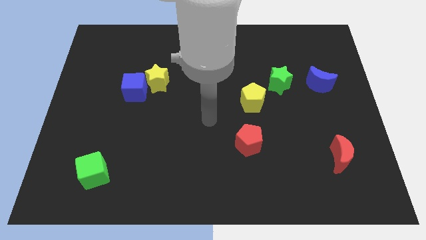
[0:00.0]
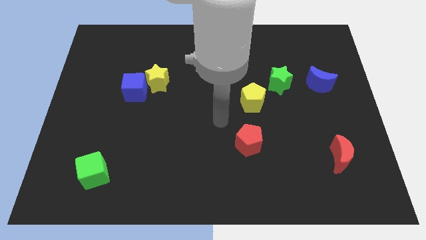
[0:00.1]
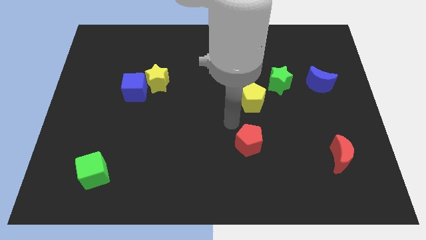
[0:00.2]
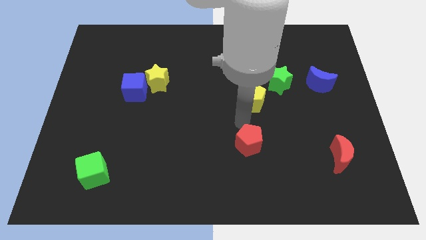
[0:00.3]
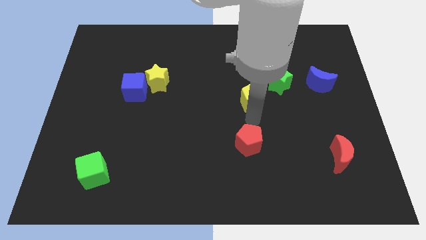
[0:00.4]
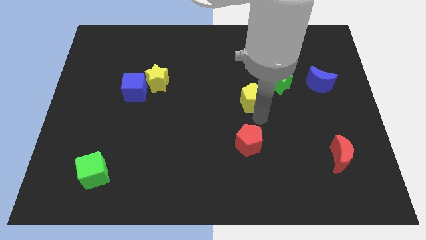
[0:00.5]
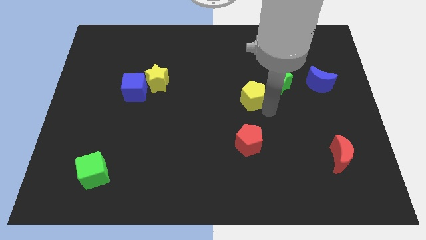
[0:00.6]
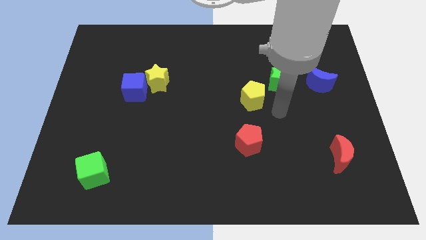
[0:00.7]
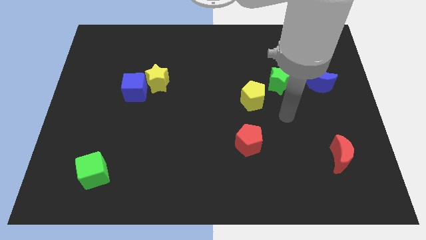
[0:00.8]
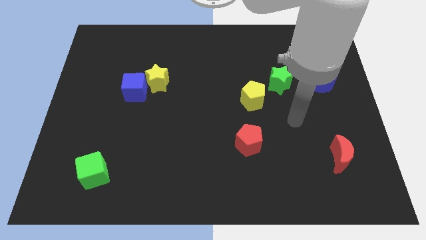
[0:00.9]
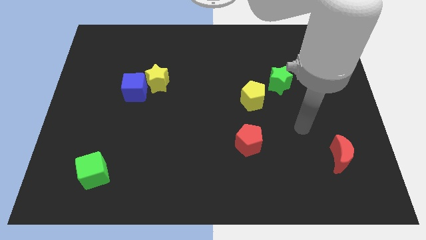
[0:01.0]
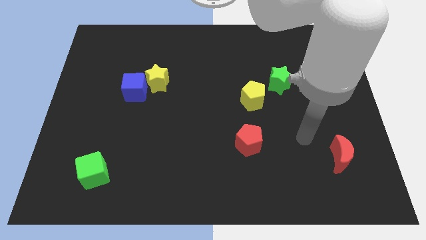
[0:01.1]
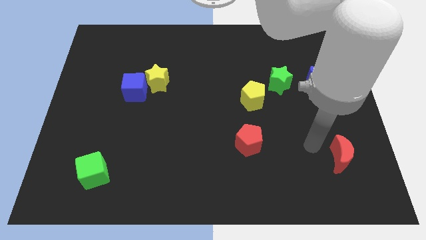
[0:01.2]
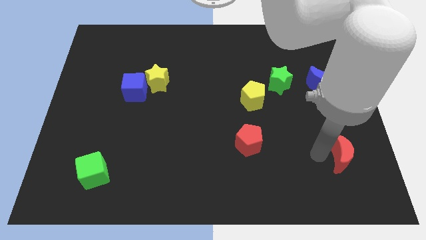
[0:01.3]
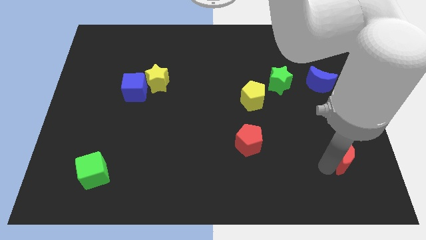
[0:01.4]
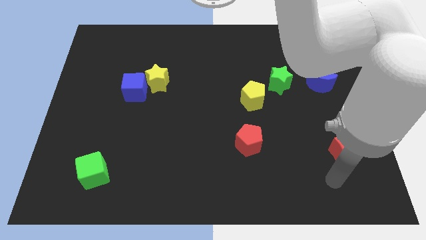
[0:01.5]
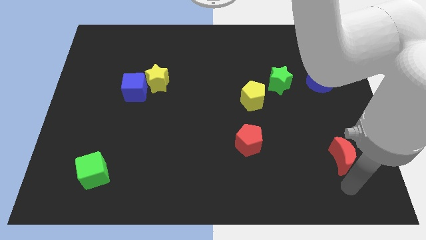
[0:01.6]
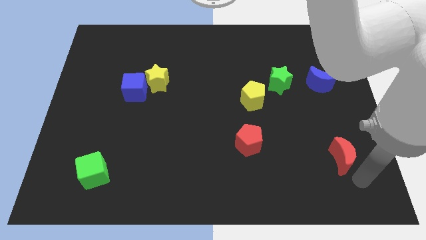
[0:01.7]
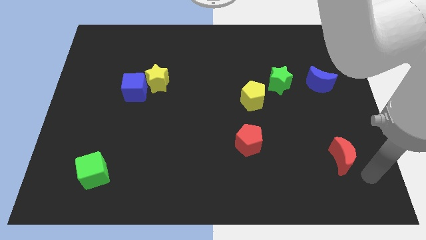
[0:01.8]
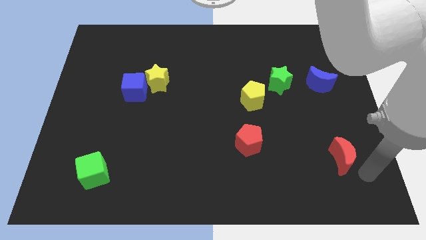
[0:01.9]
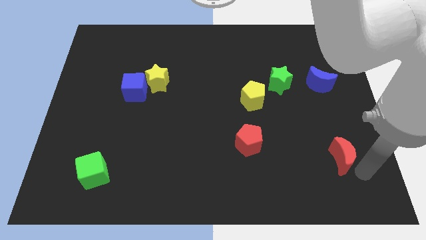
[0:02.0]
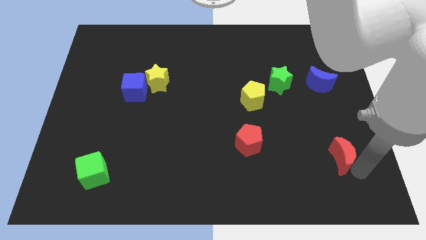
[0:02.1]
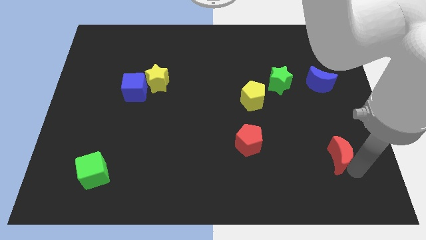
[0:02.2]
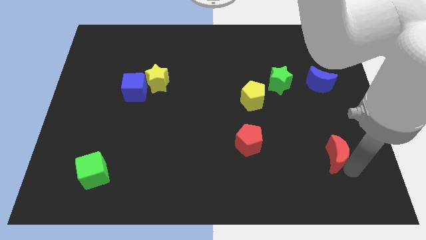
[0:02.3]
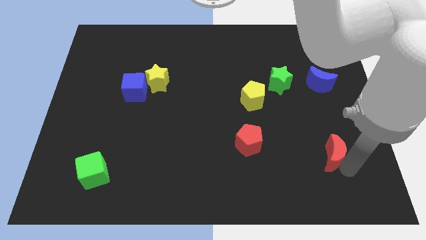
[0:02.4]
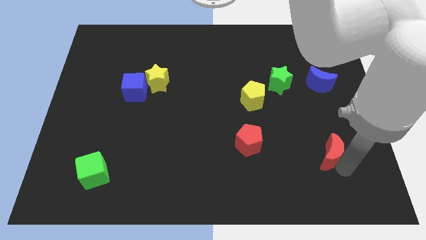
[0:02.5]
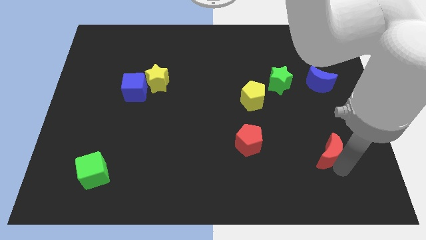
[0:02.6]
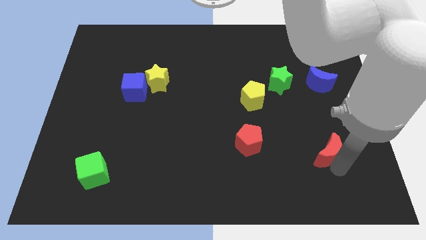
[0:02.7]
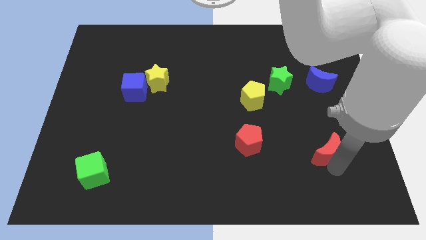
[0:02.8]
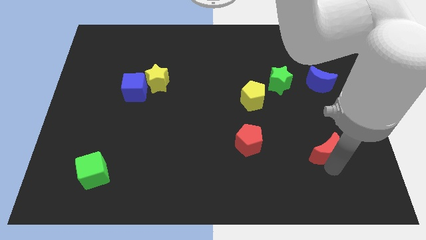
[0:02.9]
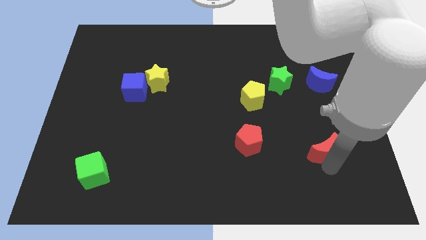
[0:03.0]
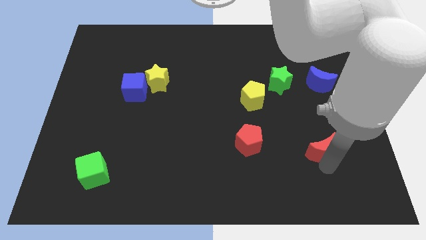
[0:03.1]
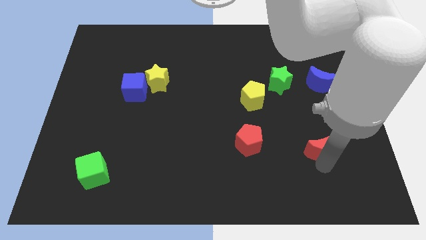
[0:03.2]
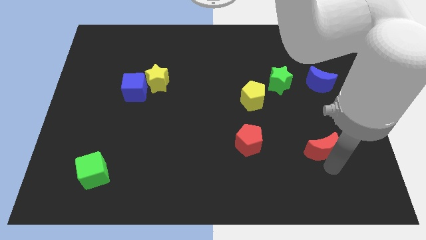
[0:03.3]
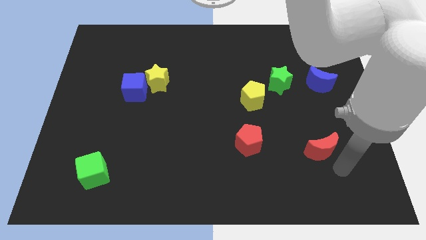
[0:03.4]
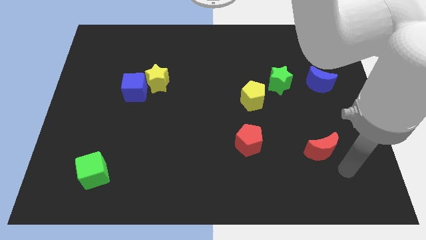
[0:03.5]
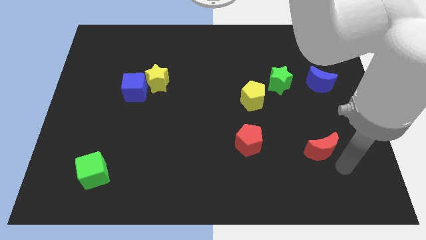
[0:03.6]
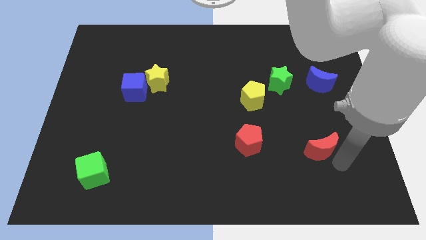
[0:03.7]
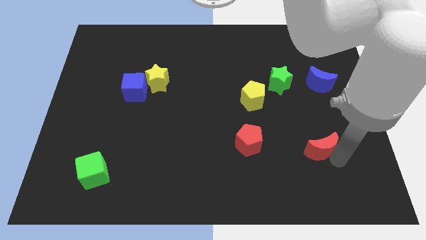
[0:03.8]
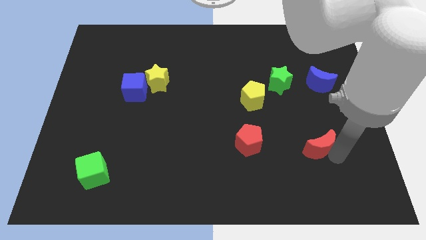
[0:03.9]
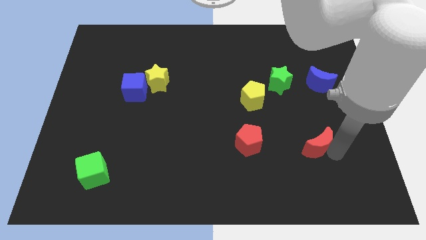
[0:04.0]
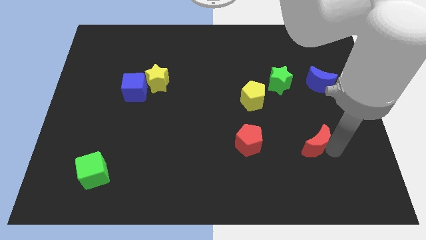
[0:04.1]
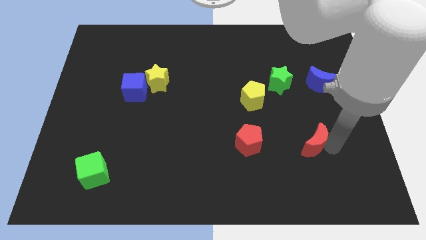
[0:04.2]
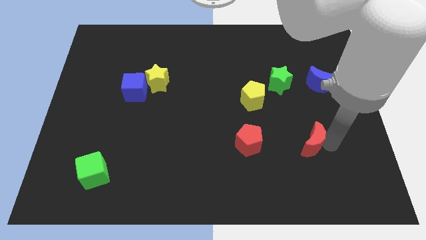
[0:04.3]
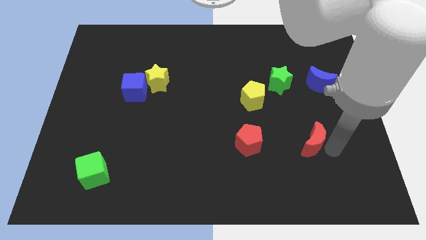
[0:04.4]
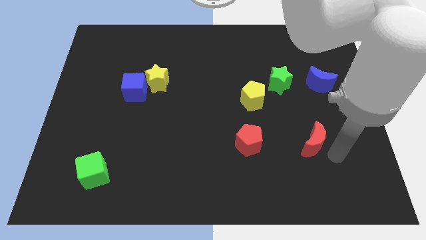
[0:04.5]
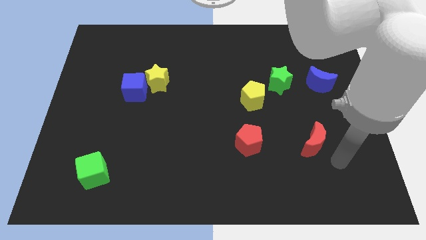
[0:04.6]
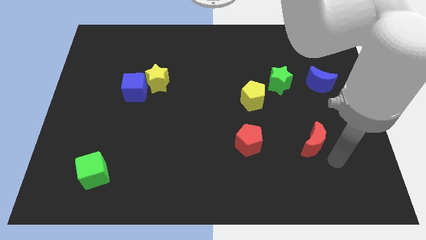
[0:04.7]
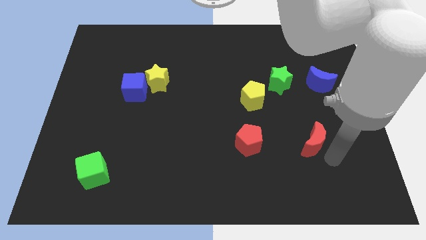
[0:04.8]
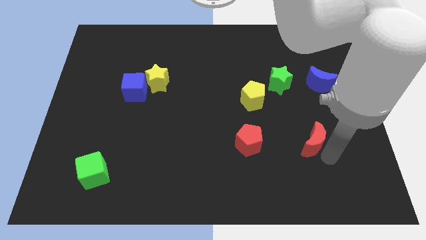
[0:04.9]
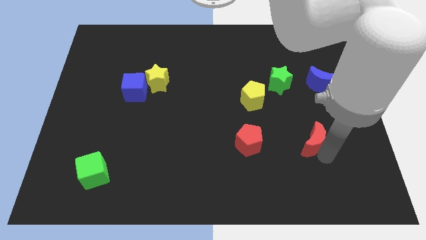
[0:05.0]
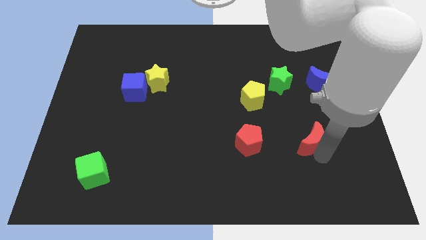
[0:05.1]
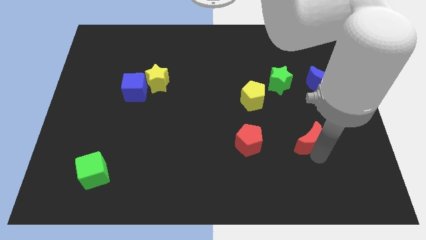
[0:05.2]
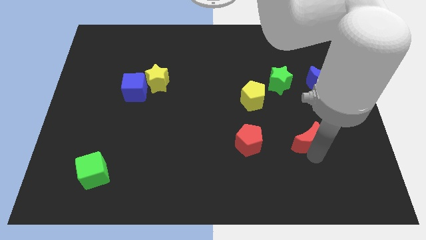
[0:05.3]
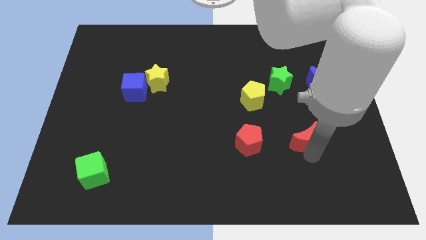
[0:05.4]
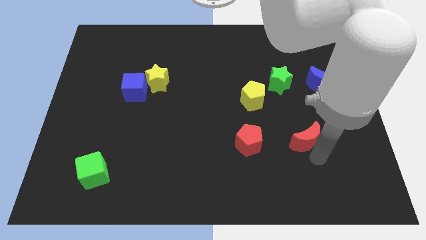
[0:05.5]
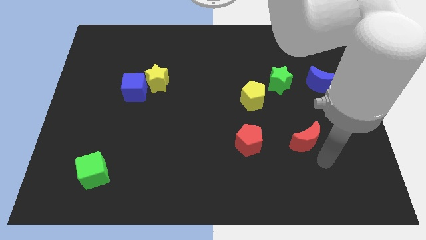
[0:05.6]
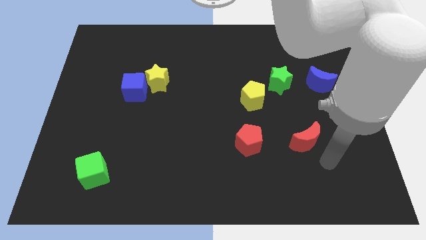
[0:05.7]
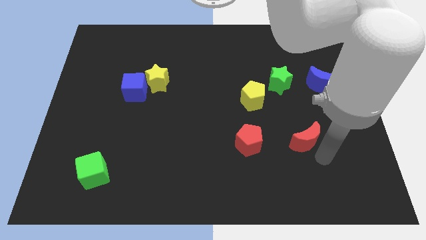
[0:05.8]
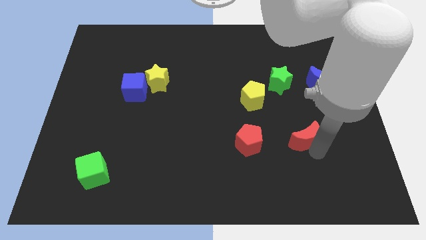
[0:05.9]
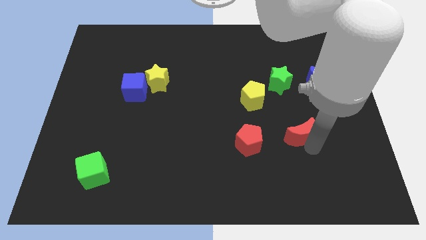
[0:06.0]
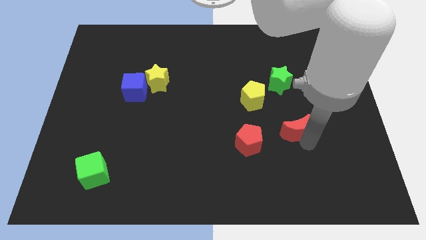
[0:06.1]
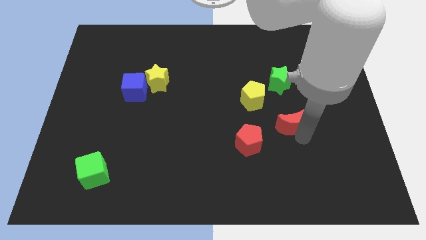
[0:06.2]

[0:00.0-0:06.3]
slide the red moon to the bottom right of the yellow pentagon

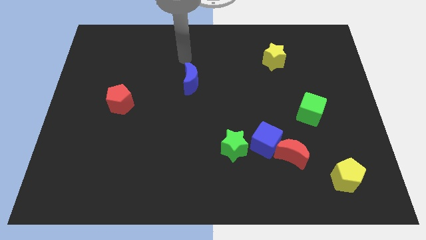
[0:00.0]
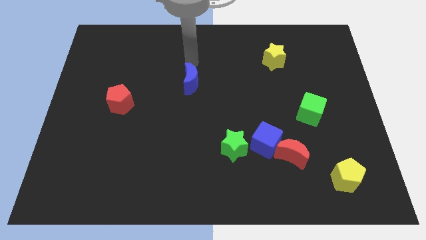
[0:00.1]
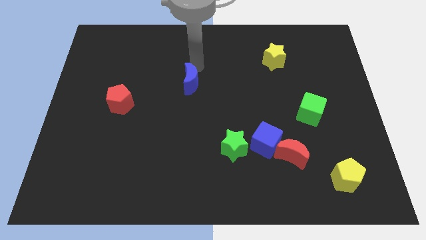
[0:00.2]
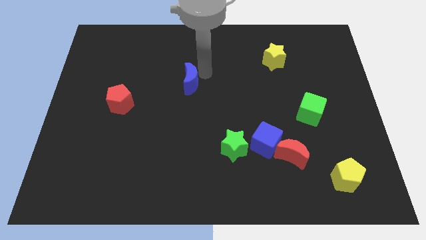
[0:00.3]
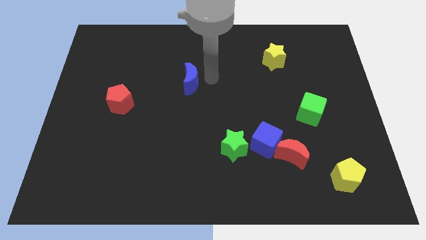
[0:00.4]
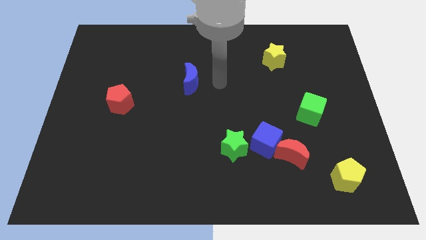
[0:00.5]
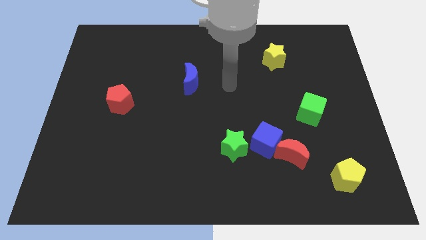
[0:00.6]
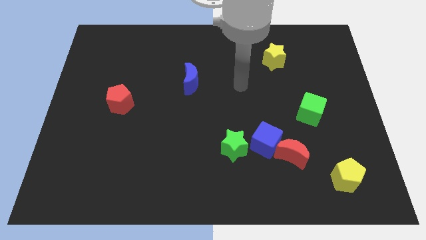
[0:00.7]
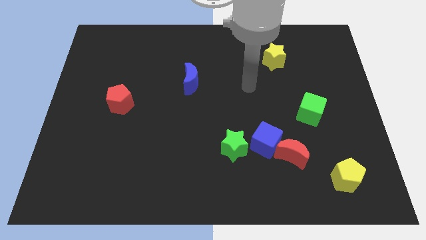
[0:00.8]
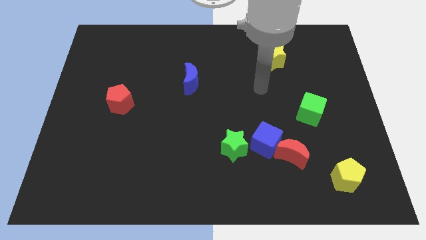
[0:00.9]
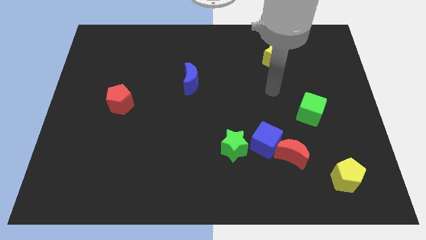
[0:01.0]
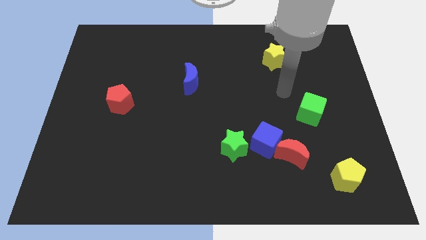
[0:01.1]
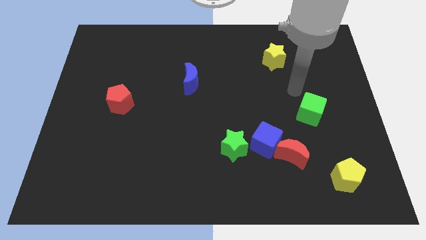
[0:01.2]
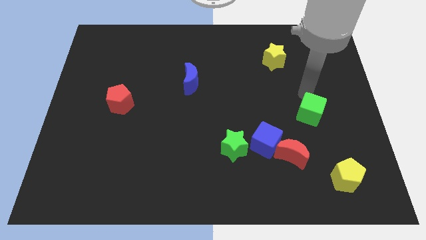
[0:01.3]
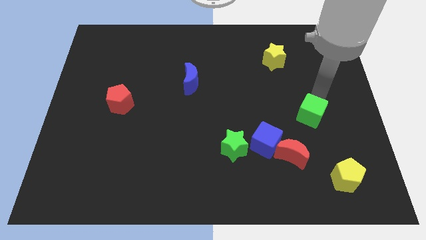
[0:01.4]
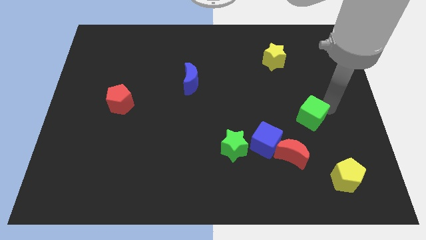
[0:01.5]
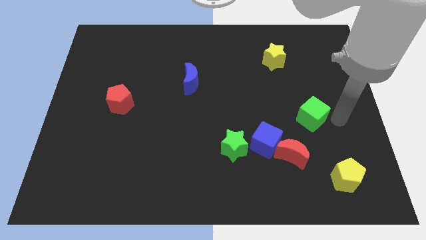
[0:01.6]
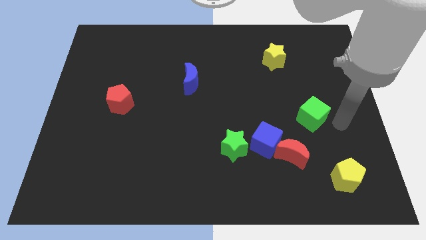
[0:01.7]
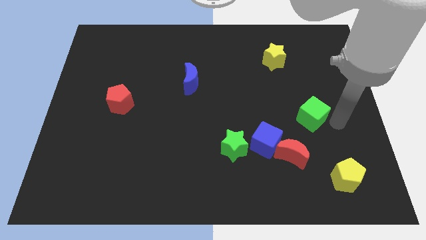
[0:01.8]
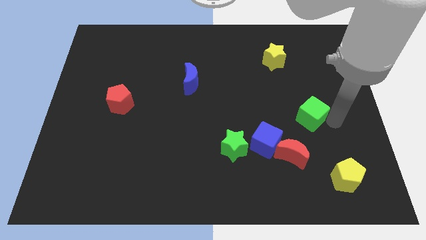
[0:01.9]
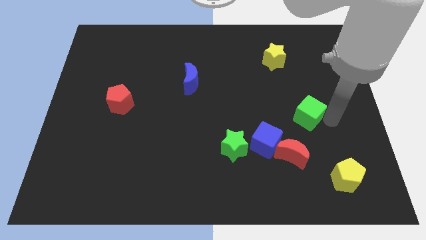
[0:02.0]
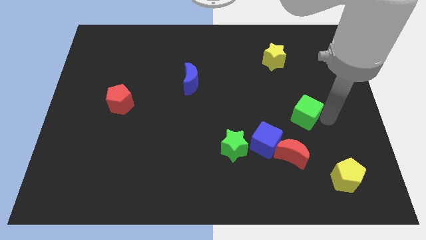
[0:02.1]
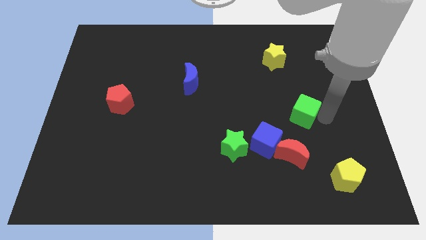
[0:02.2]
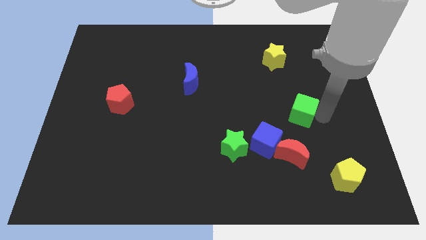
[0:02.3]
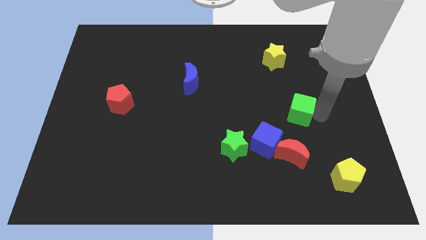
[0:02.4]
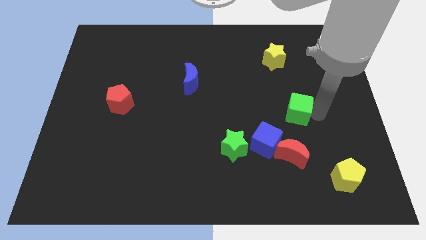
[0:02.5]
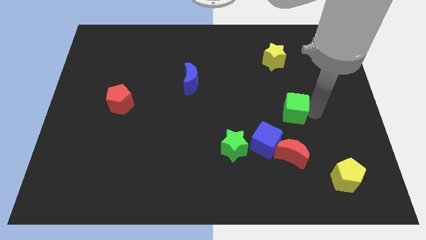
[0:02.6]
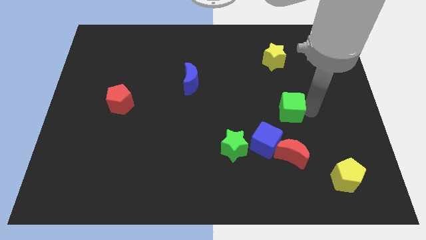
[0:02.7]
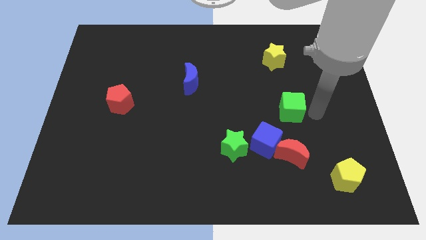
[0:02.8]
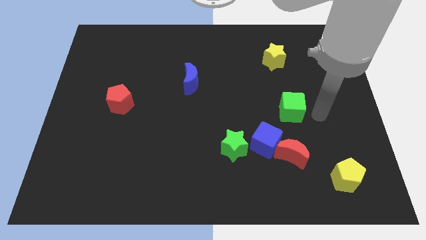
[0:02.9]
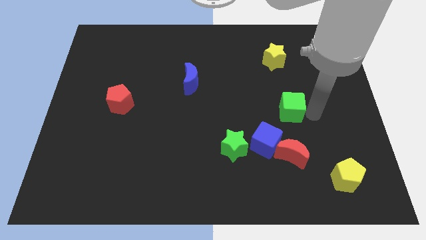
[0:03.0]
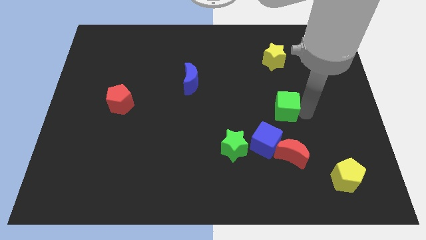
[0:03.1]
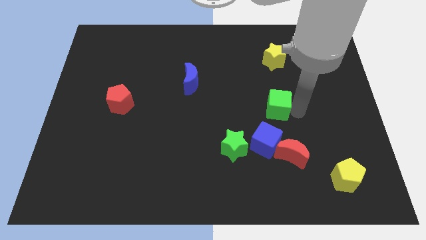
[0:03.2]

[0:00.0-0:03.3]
move the green cube to the top of the blue cube
